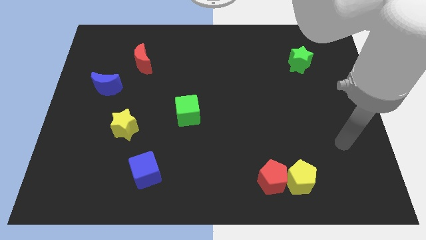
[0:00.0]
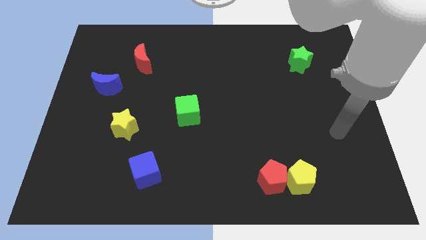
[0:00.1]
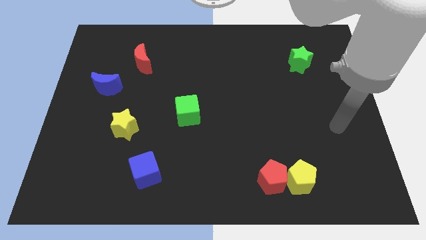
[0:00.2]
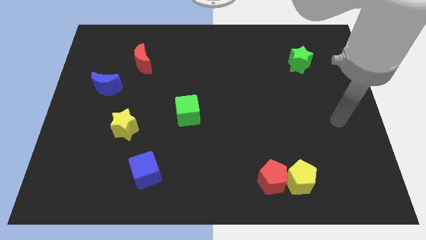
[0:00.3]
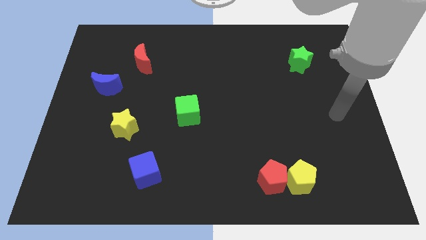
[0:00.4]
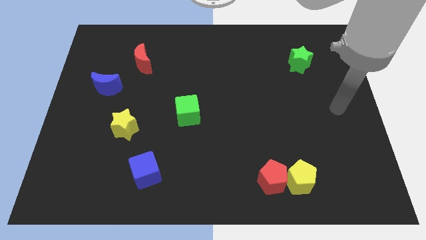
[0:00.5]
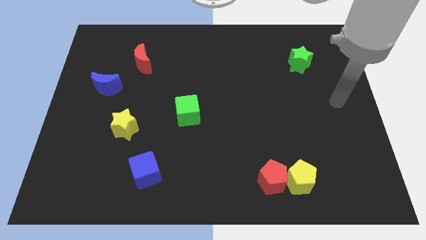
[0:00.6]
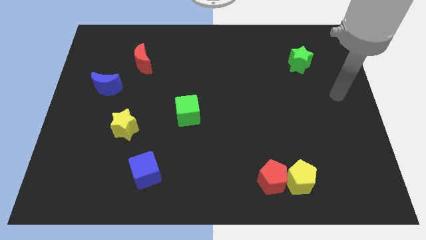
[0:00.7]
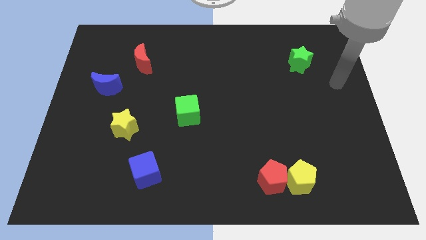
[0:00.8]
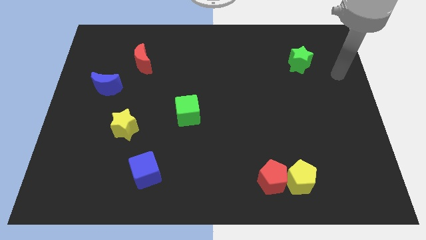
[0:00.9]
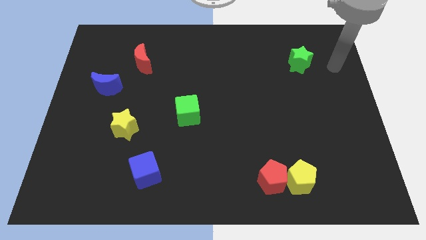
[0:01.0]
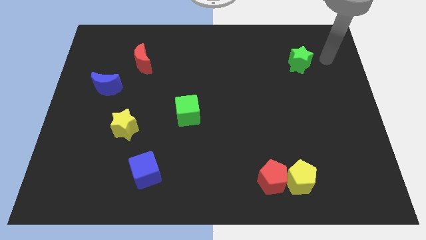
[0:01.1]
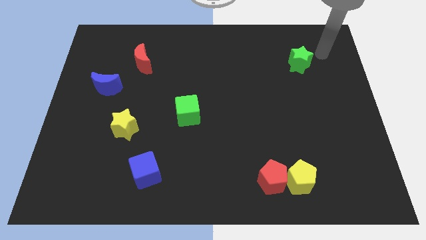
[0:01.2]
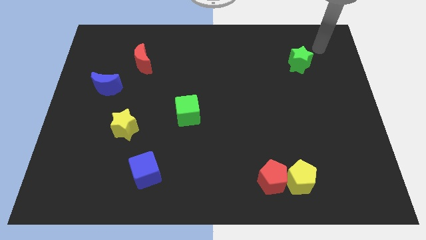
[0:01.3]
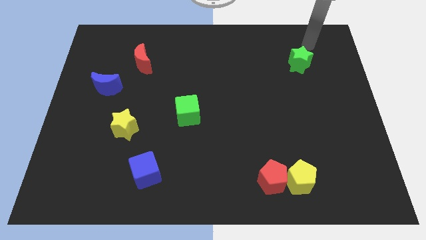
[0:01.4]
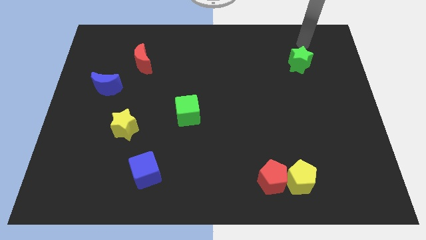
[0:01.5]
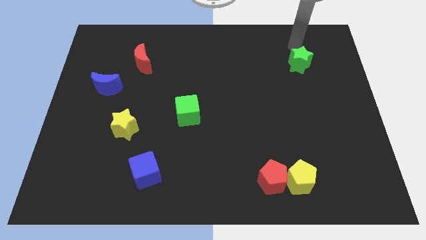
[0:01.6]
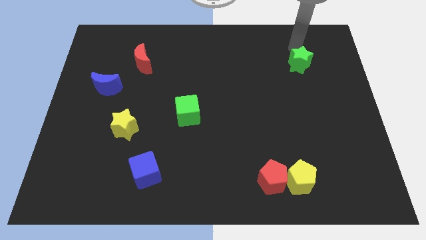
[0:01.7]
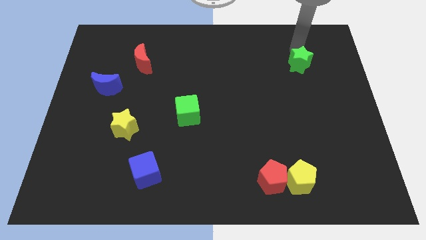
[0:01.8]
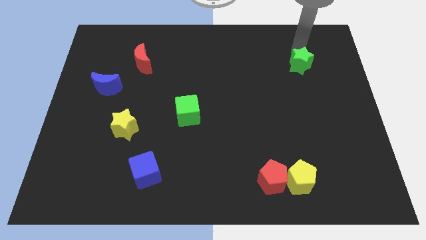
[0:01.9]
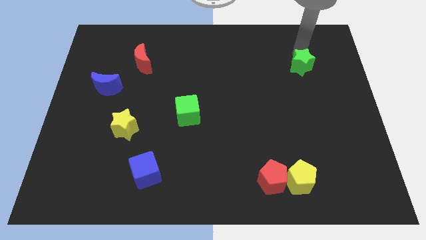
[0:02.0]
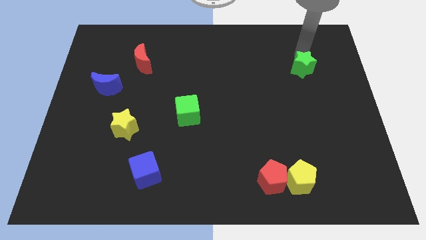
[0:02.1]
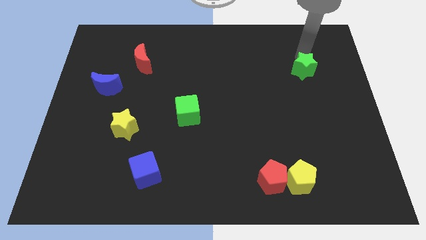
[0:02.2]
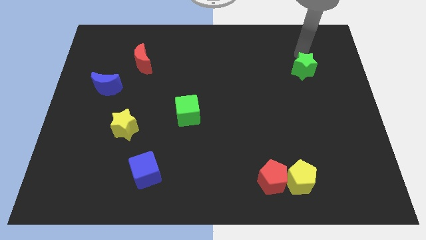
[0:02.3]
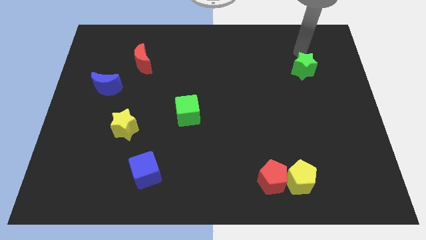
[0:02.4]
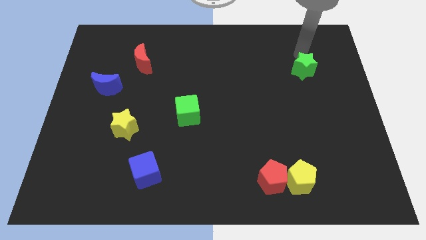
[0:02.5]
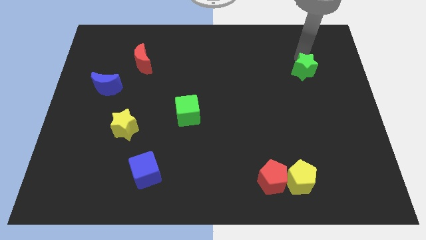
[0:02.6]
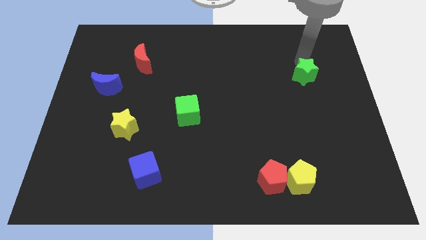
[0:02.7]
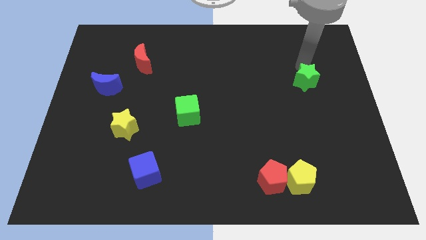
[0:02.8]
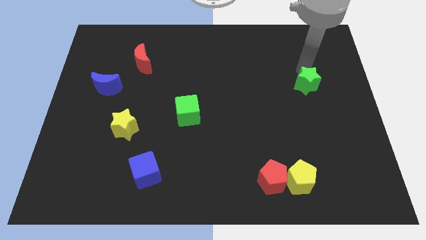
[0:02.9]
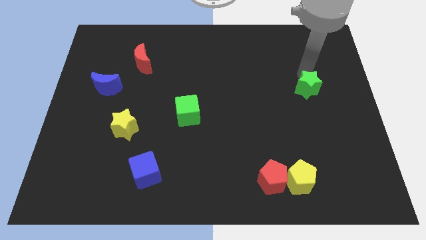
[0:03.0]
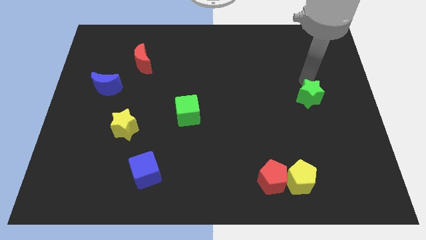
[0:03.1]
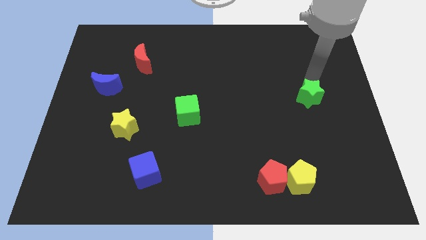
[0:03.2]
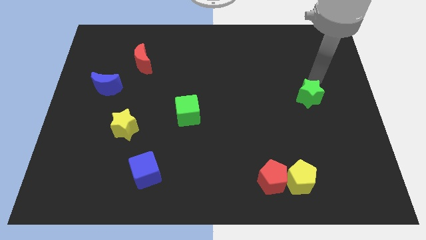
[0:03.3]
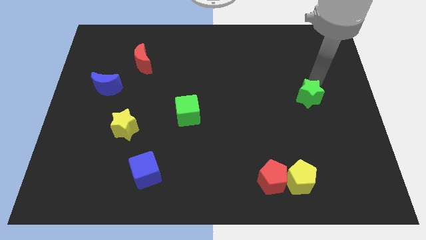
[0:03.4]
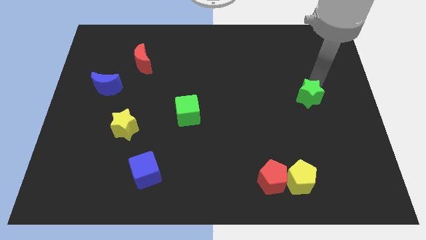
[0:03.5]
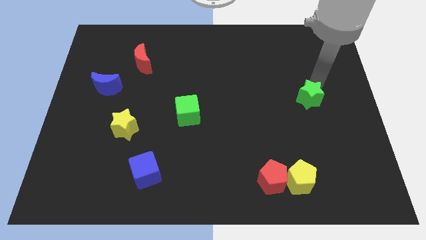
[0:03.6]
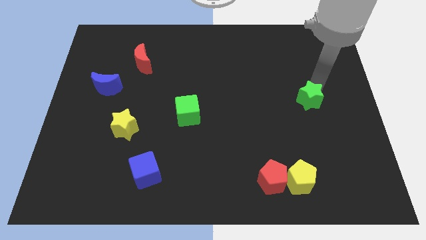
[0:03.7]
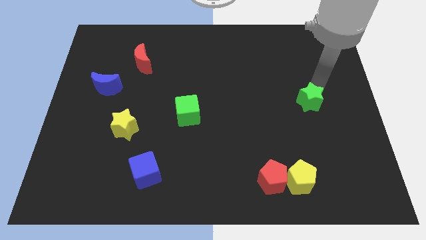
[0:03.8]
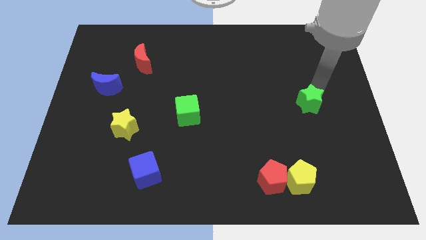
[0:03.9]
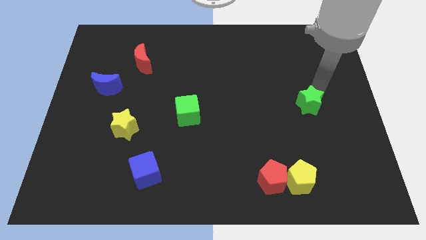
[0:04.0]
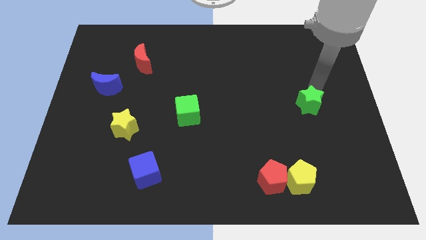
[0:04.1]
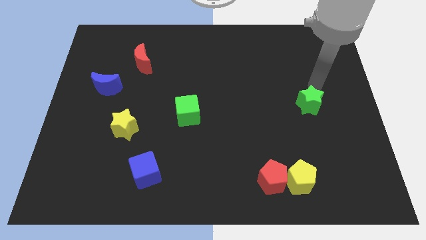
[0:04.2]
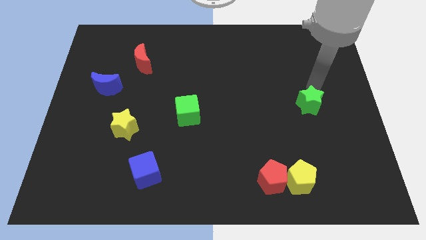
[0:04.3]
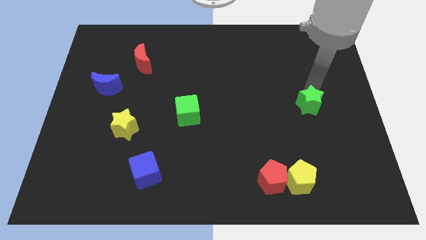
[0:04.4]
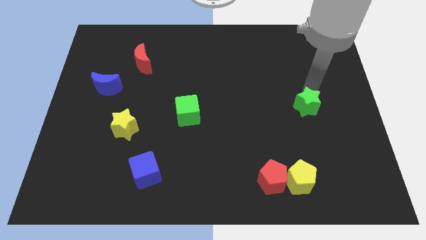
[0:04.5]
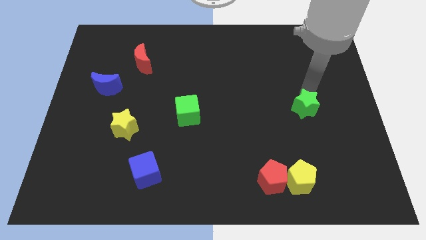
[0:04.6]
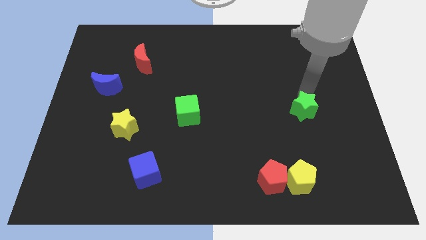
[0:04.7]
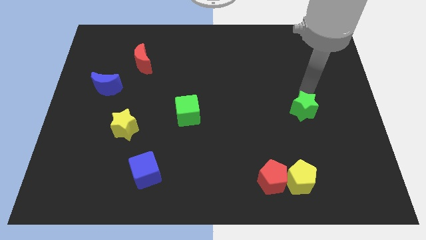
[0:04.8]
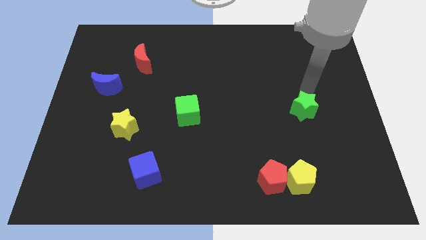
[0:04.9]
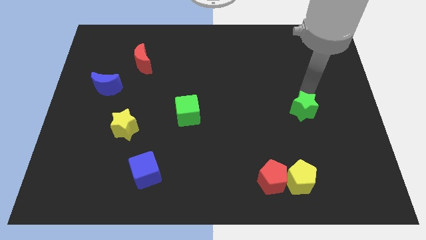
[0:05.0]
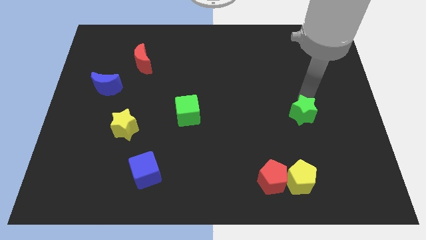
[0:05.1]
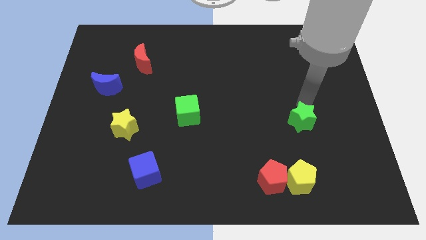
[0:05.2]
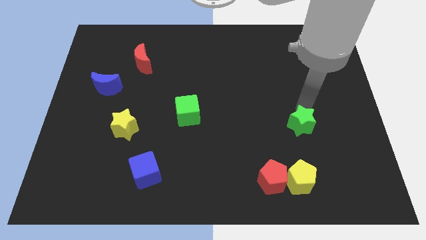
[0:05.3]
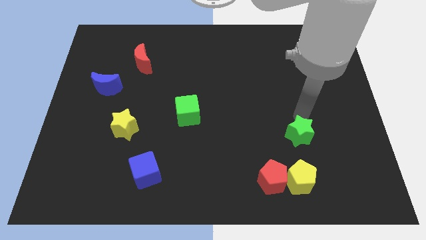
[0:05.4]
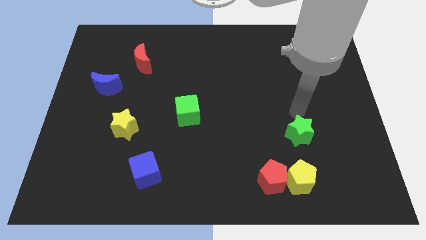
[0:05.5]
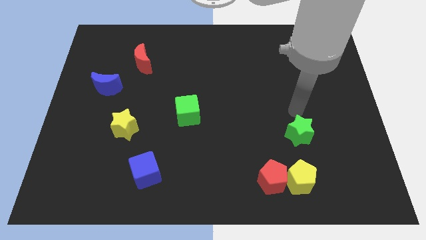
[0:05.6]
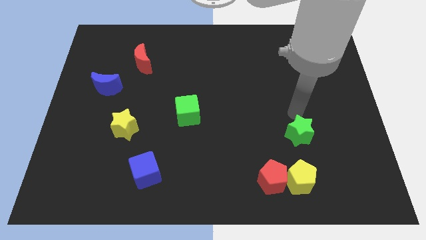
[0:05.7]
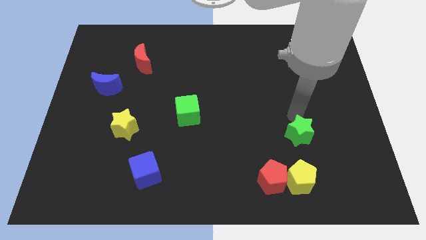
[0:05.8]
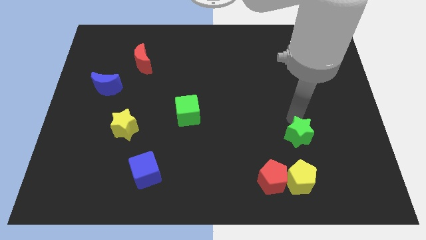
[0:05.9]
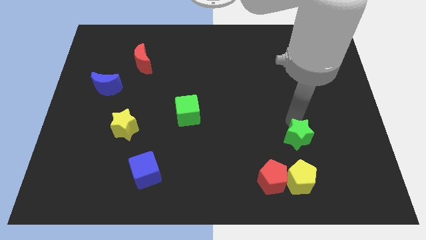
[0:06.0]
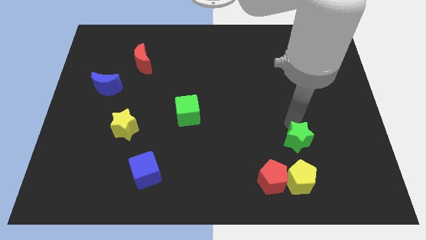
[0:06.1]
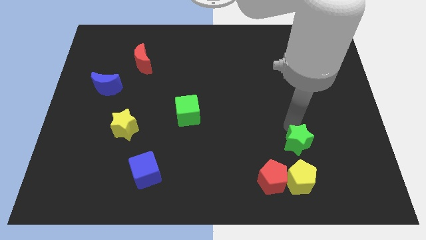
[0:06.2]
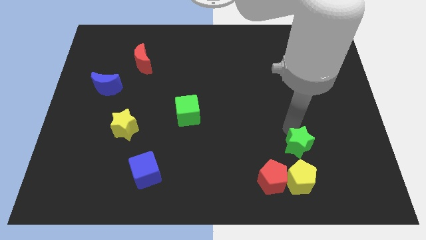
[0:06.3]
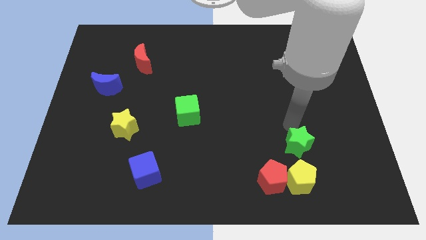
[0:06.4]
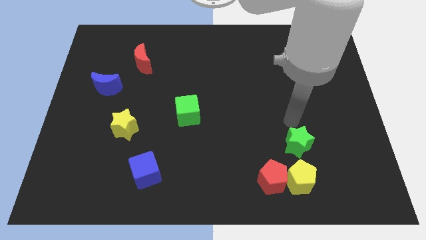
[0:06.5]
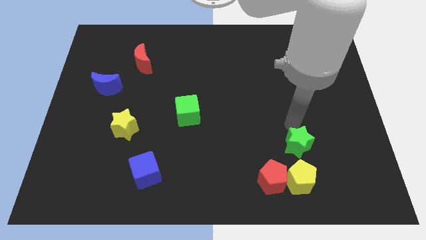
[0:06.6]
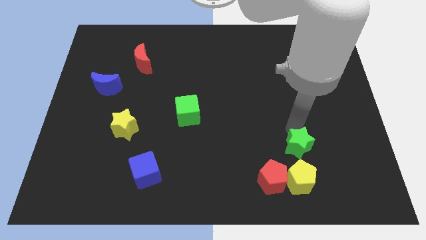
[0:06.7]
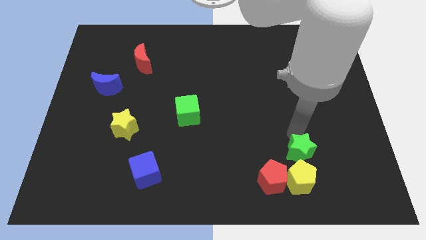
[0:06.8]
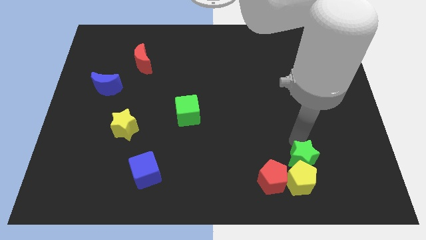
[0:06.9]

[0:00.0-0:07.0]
slide the green star to the yellow pentagon

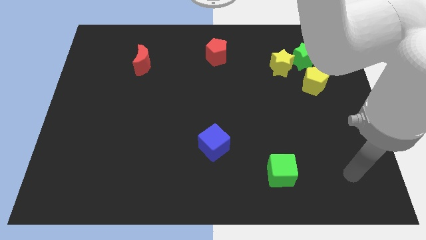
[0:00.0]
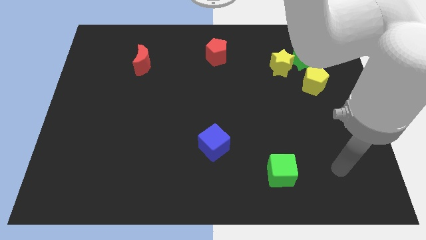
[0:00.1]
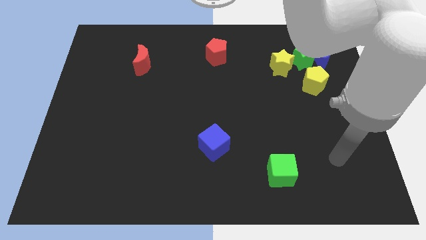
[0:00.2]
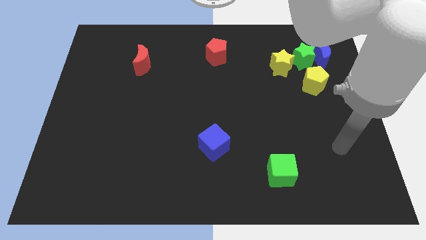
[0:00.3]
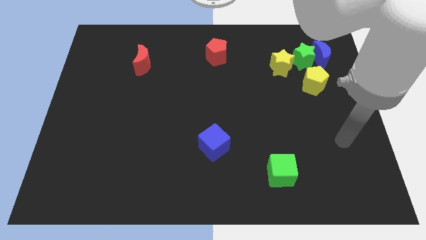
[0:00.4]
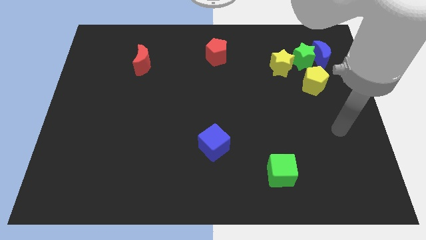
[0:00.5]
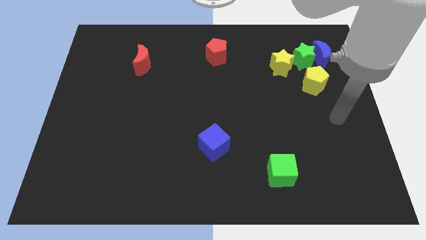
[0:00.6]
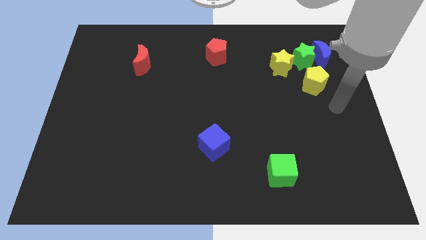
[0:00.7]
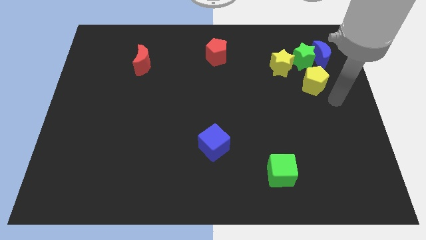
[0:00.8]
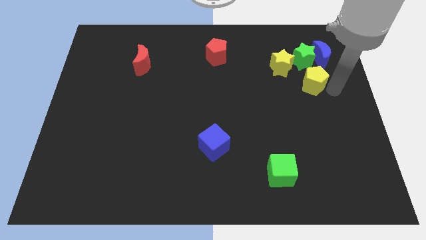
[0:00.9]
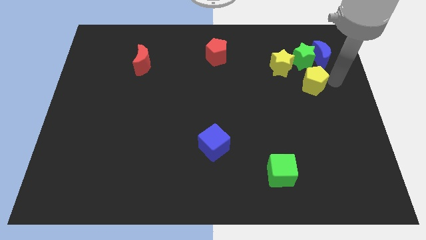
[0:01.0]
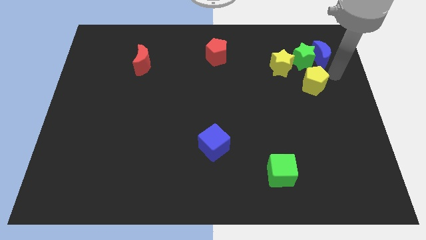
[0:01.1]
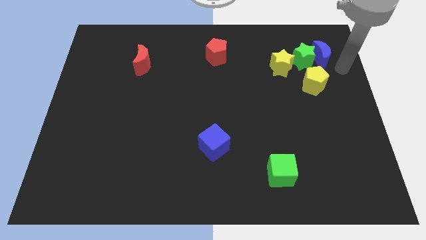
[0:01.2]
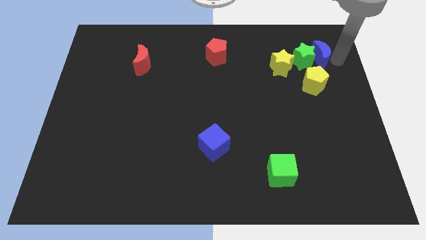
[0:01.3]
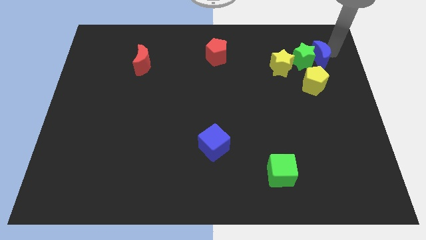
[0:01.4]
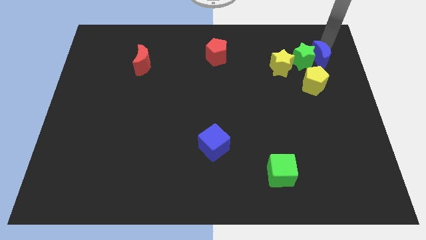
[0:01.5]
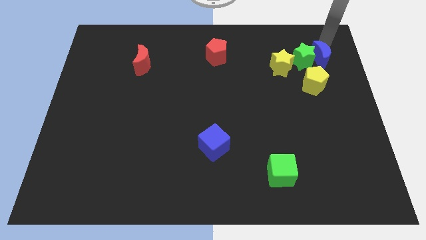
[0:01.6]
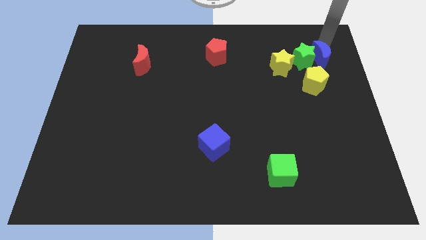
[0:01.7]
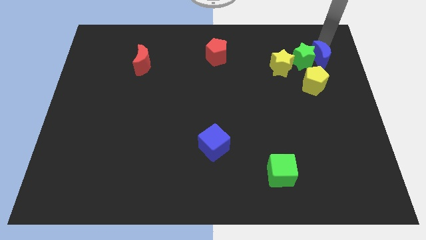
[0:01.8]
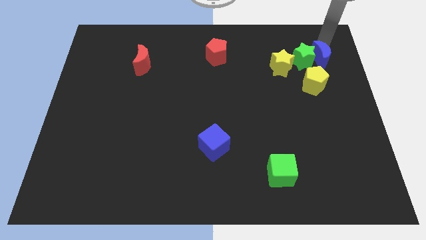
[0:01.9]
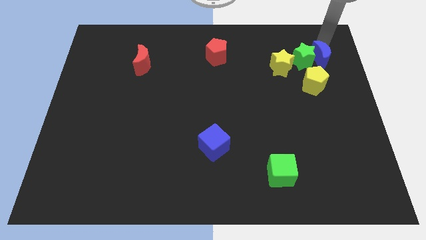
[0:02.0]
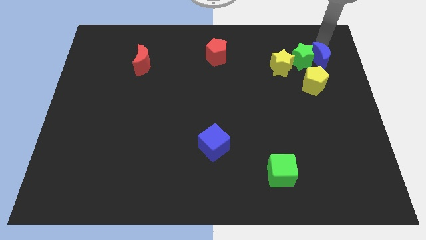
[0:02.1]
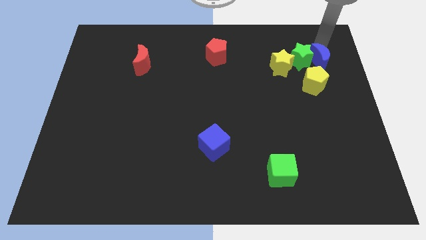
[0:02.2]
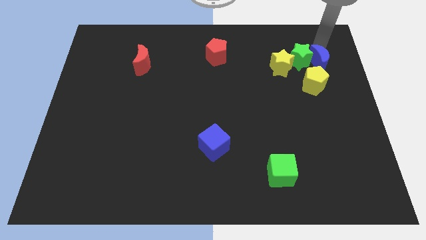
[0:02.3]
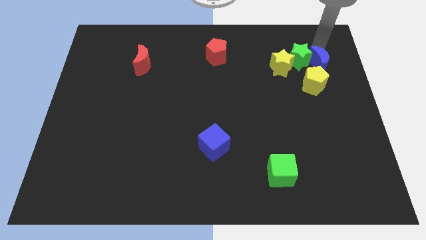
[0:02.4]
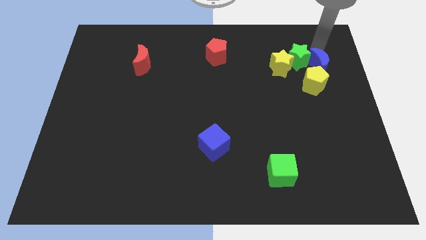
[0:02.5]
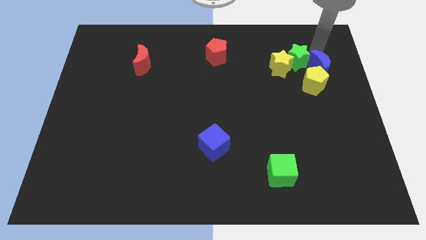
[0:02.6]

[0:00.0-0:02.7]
move the blue moon to the yellow pentagon
